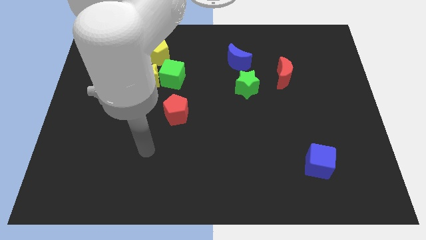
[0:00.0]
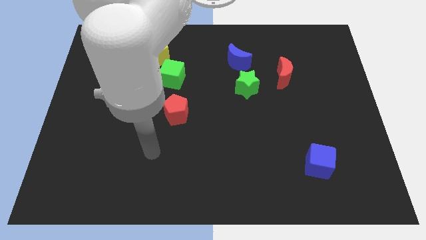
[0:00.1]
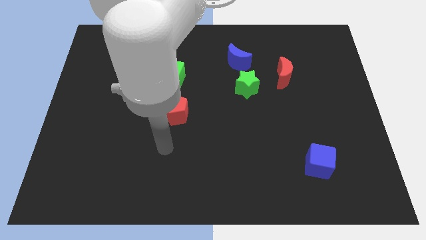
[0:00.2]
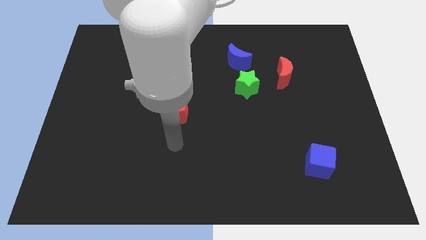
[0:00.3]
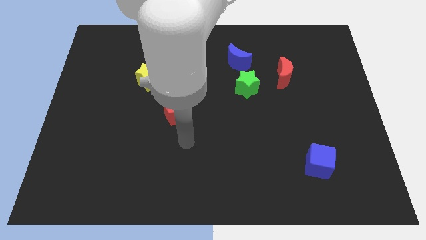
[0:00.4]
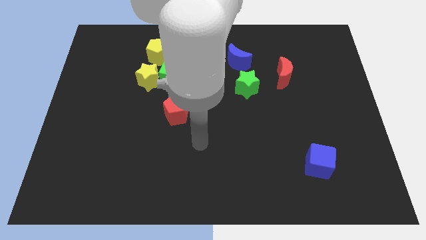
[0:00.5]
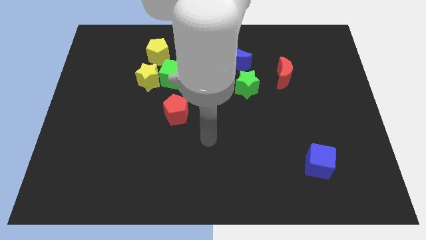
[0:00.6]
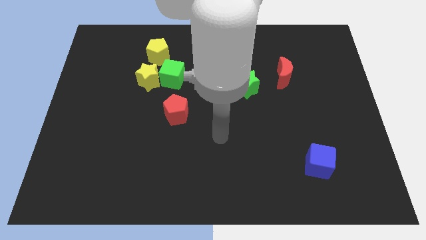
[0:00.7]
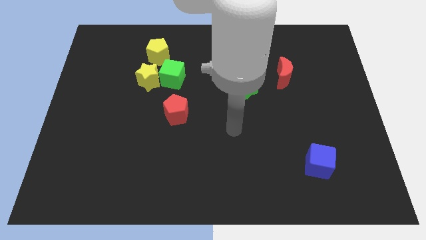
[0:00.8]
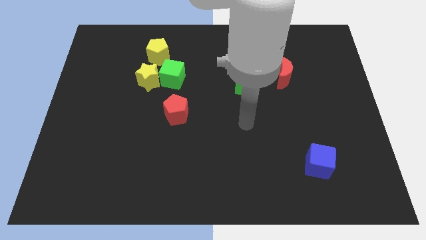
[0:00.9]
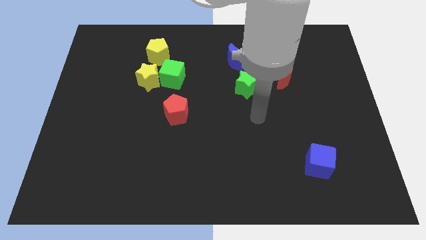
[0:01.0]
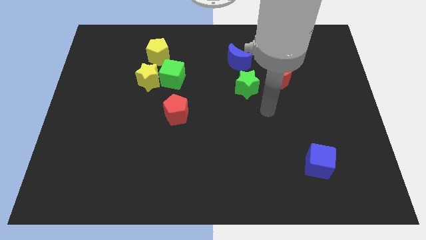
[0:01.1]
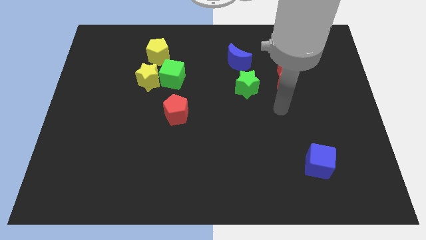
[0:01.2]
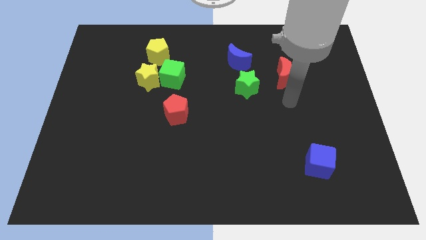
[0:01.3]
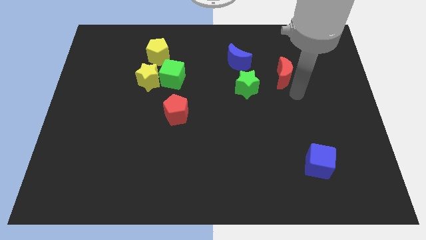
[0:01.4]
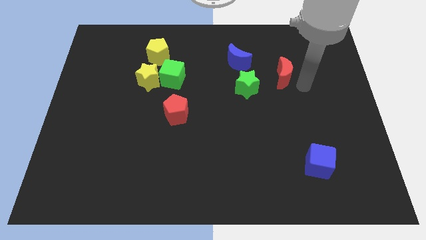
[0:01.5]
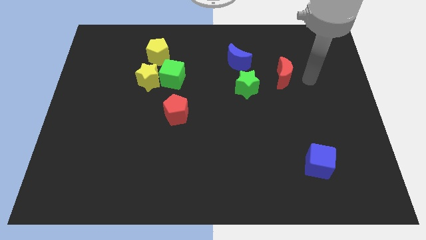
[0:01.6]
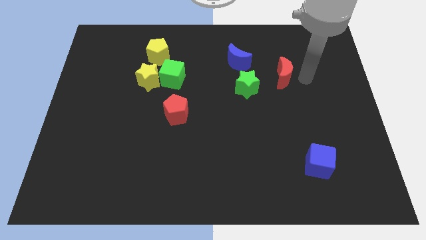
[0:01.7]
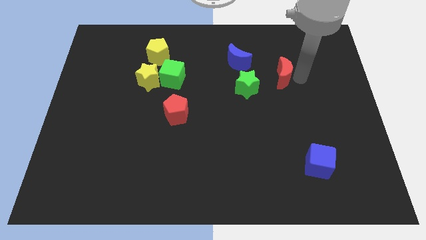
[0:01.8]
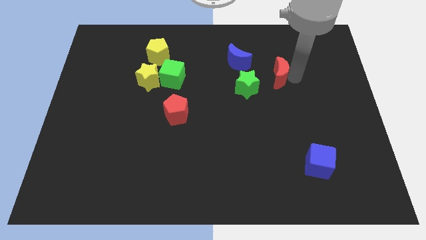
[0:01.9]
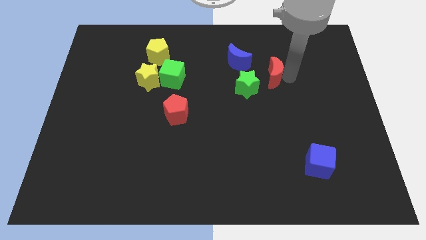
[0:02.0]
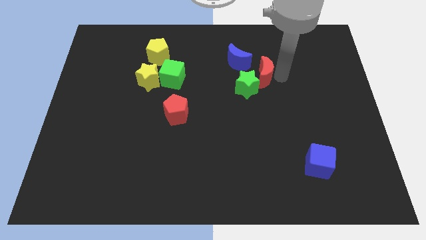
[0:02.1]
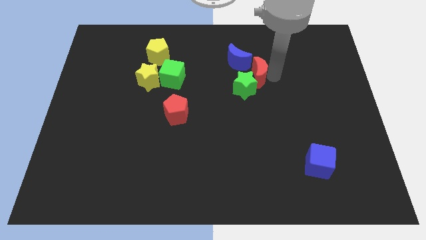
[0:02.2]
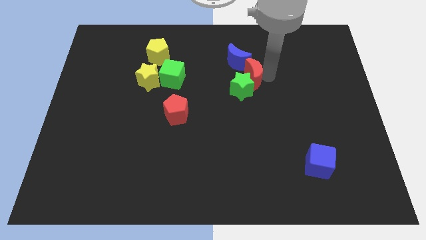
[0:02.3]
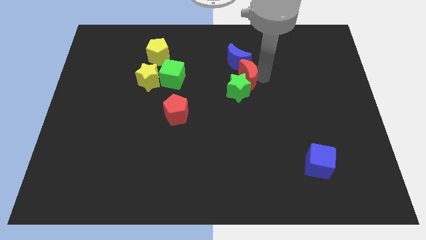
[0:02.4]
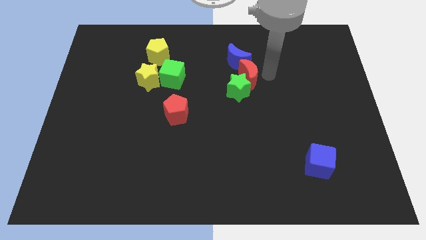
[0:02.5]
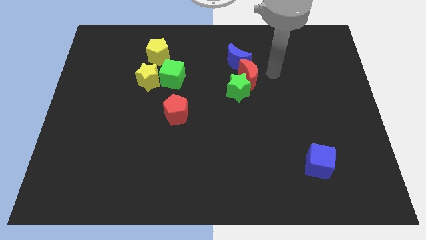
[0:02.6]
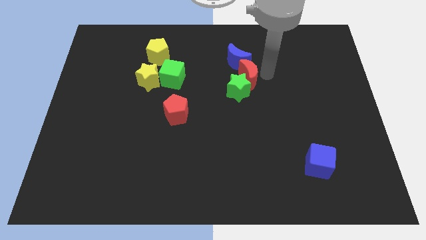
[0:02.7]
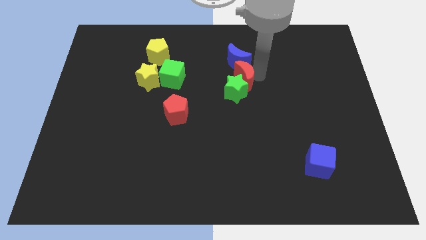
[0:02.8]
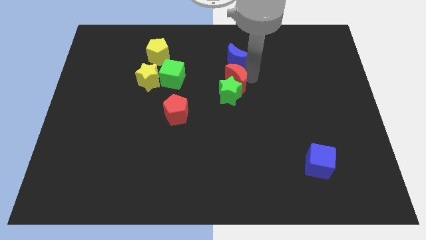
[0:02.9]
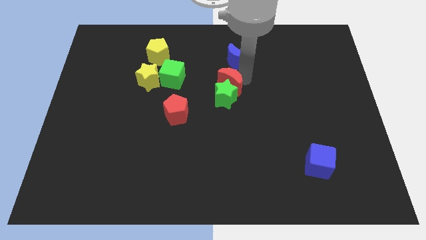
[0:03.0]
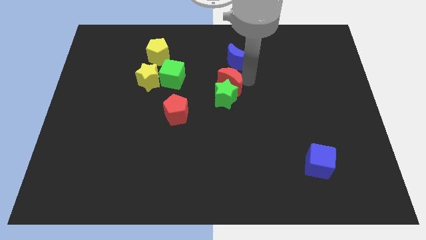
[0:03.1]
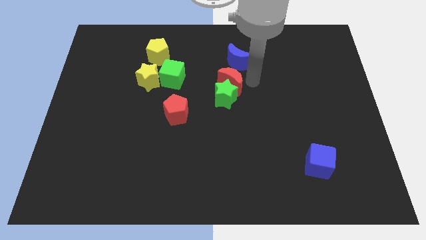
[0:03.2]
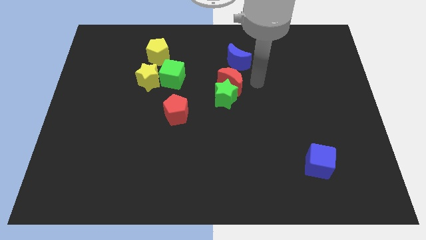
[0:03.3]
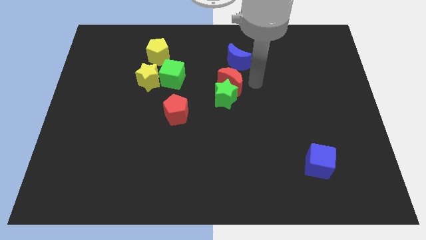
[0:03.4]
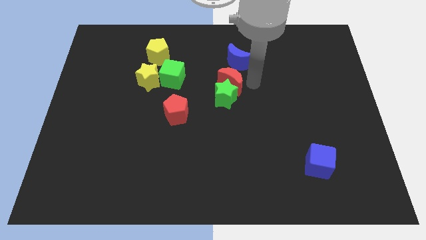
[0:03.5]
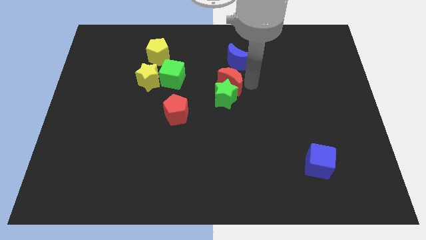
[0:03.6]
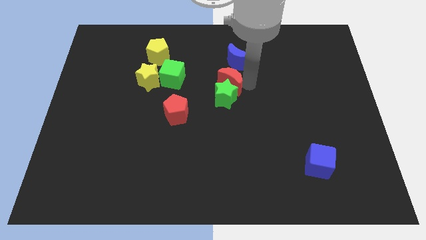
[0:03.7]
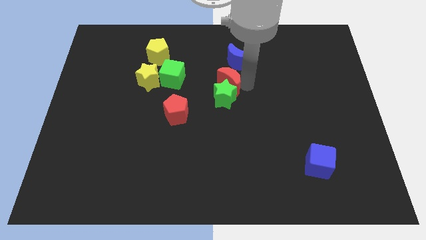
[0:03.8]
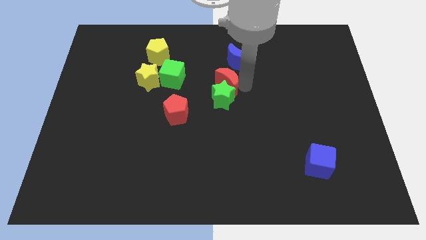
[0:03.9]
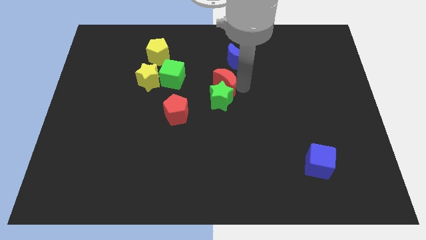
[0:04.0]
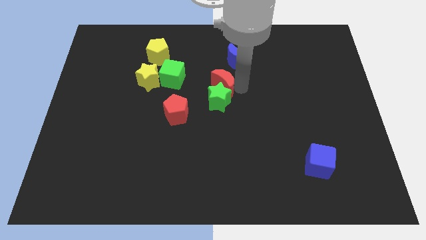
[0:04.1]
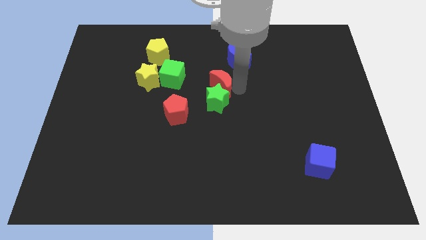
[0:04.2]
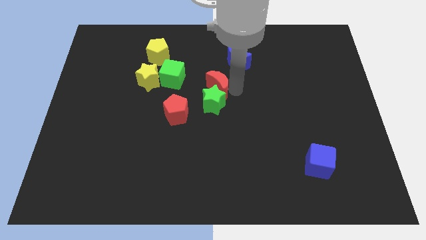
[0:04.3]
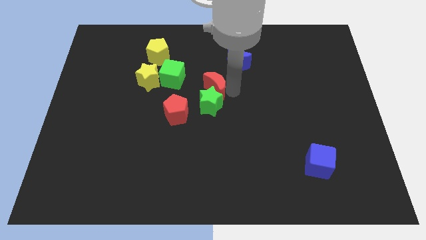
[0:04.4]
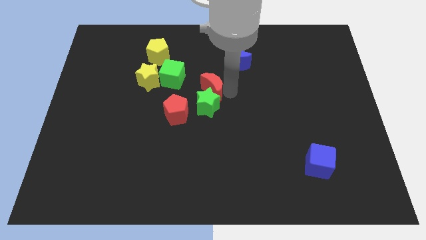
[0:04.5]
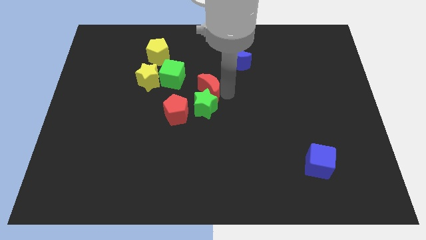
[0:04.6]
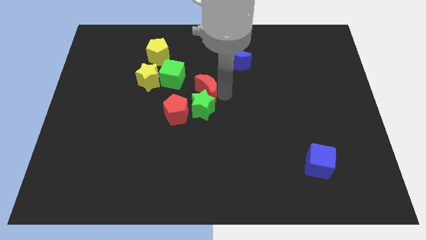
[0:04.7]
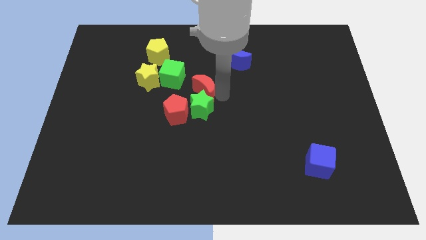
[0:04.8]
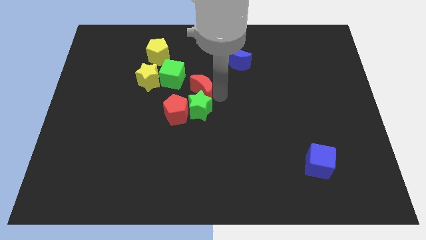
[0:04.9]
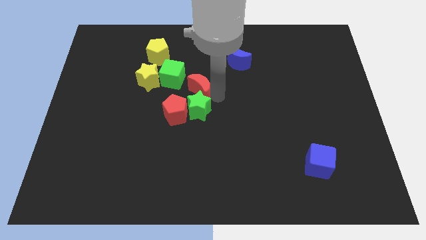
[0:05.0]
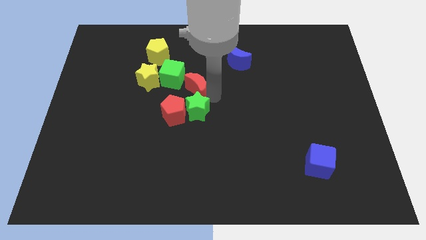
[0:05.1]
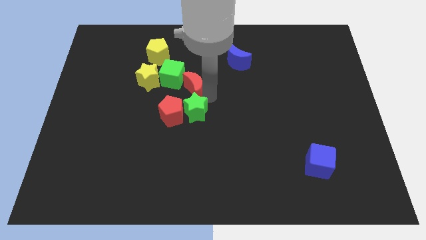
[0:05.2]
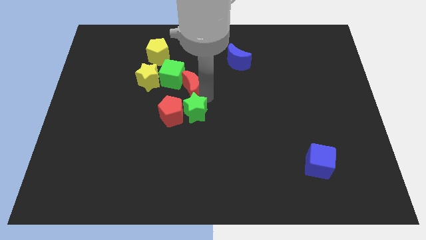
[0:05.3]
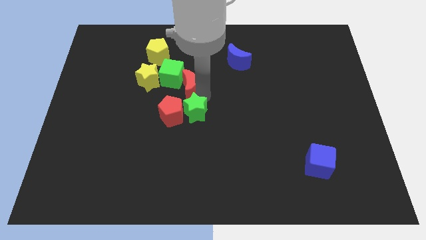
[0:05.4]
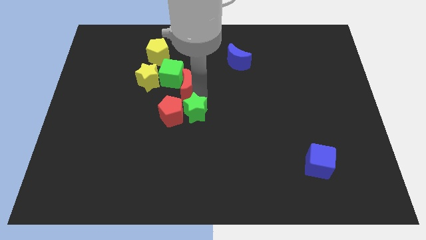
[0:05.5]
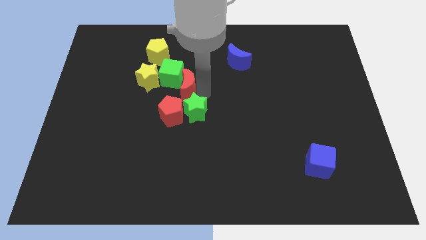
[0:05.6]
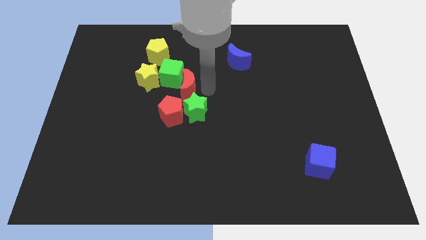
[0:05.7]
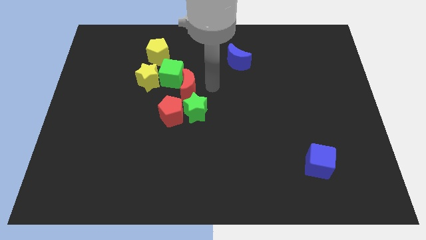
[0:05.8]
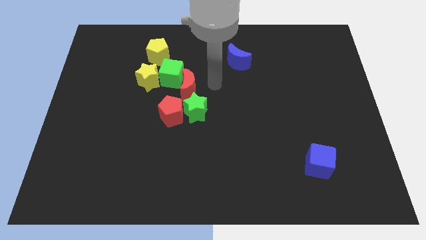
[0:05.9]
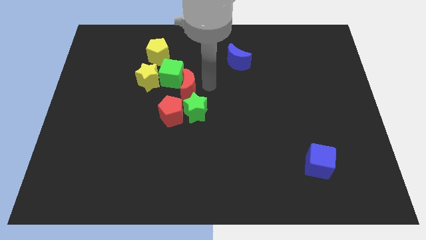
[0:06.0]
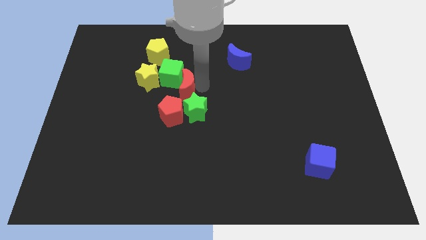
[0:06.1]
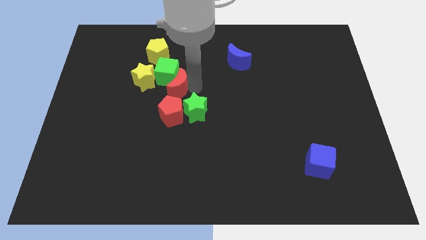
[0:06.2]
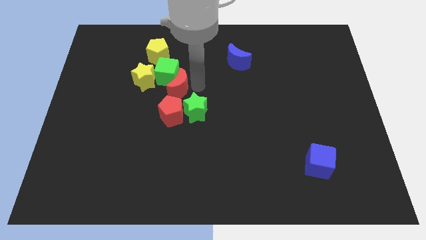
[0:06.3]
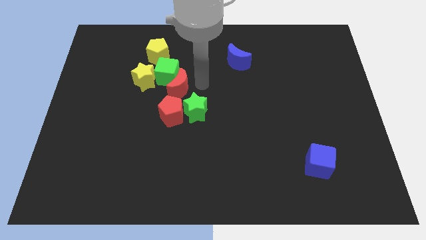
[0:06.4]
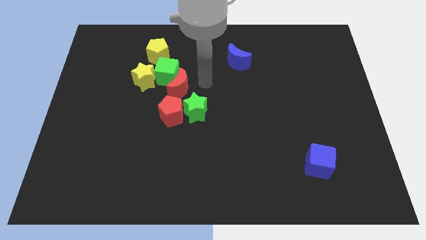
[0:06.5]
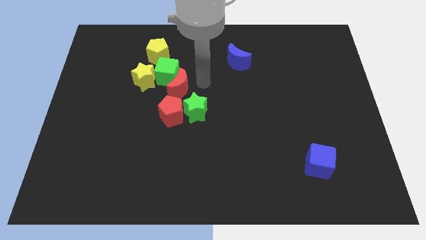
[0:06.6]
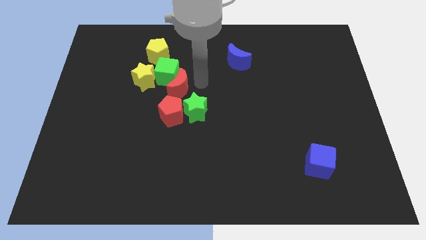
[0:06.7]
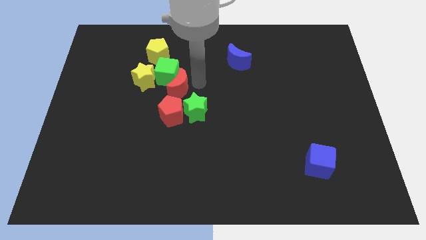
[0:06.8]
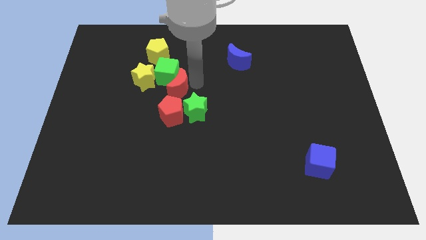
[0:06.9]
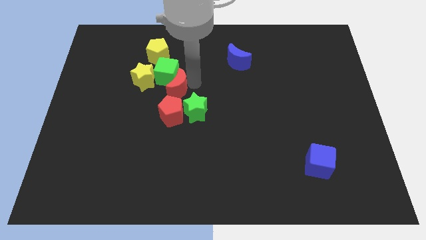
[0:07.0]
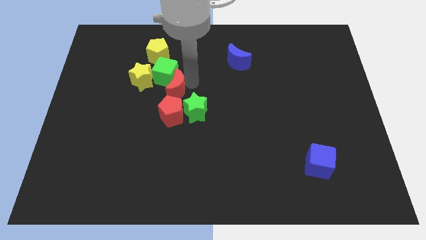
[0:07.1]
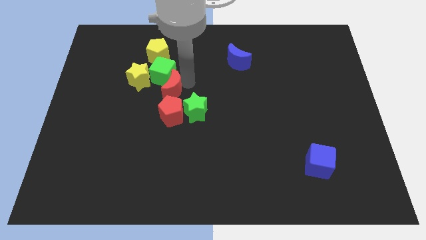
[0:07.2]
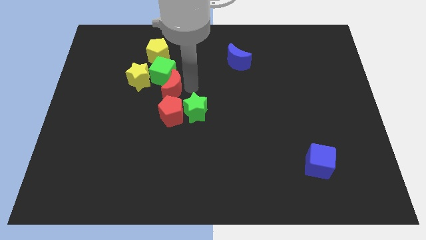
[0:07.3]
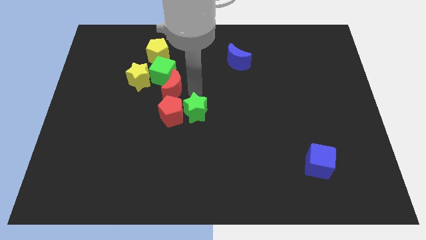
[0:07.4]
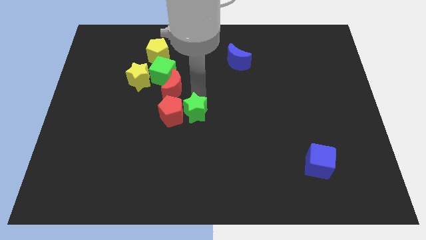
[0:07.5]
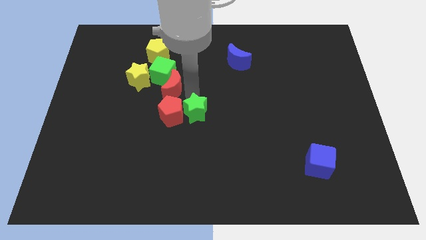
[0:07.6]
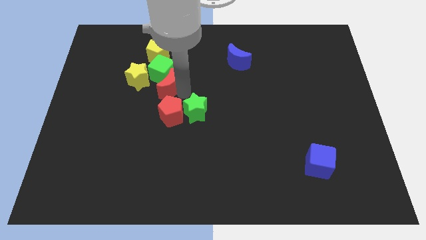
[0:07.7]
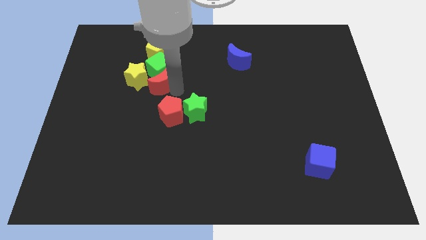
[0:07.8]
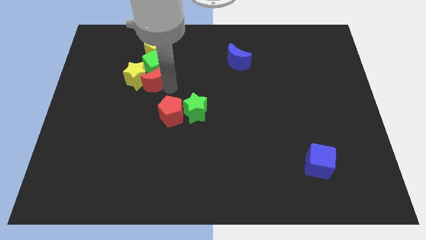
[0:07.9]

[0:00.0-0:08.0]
push the red moon towards the yellow star
